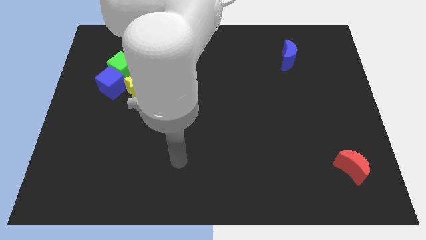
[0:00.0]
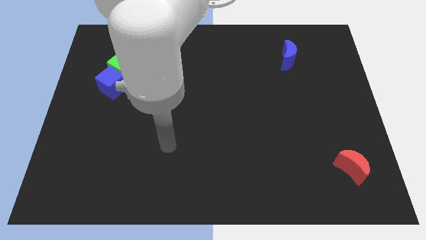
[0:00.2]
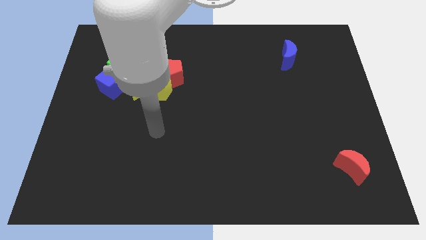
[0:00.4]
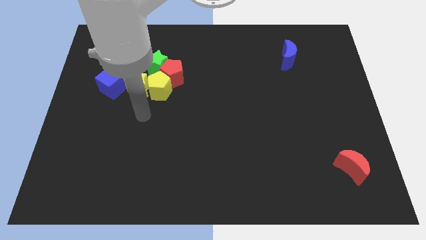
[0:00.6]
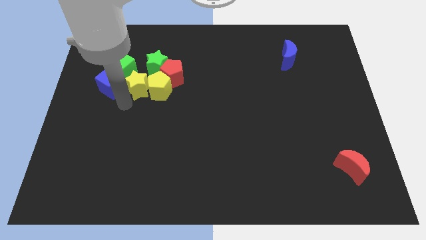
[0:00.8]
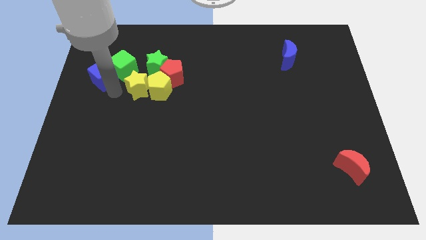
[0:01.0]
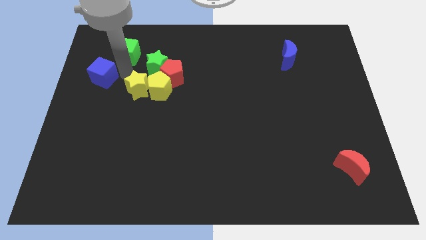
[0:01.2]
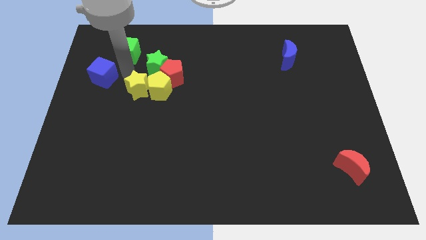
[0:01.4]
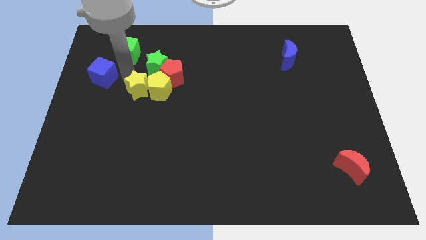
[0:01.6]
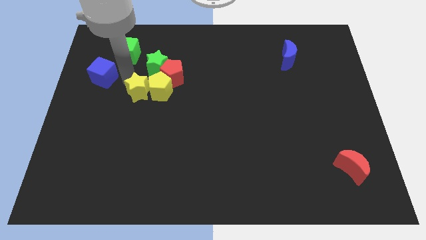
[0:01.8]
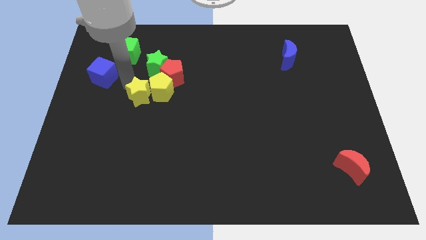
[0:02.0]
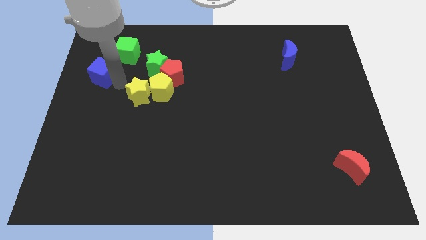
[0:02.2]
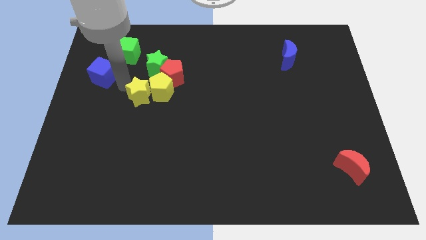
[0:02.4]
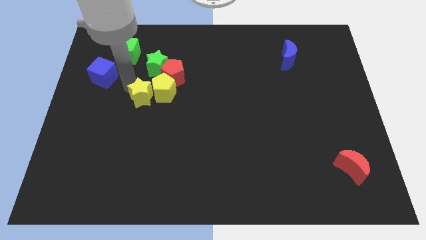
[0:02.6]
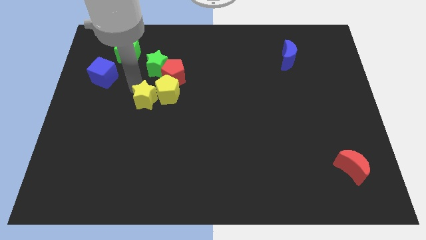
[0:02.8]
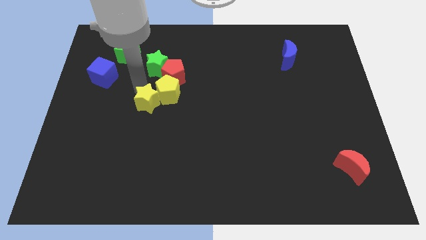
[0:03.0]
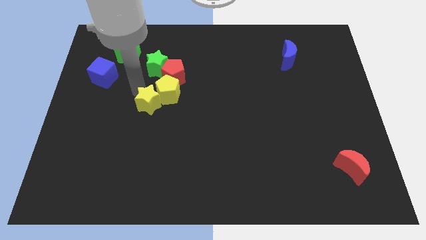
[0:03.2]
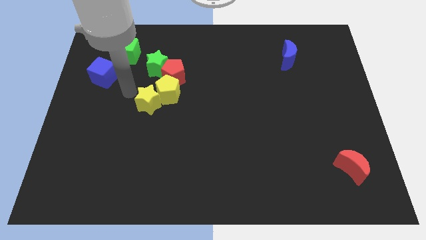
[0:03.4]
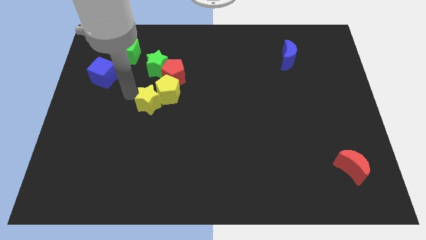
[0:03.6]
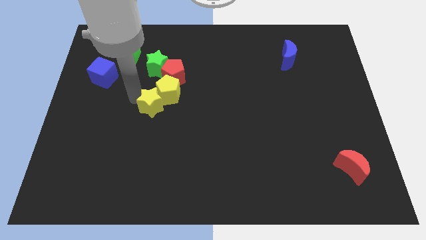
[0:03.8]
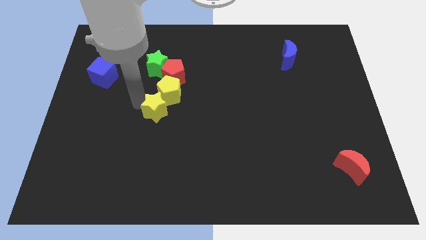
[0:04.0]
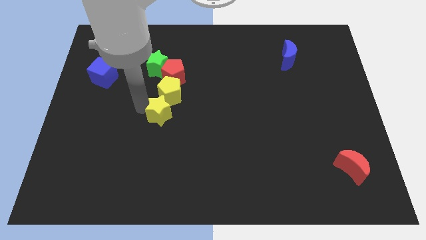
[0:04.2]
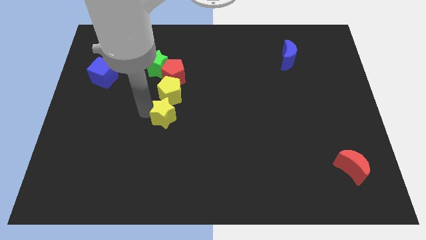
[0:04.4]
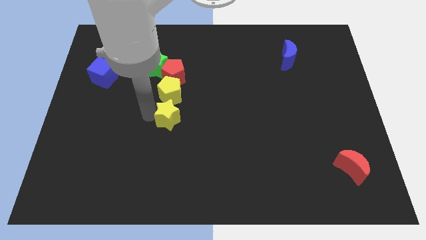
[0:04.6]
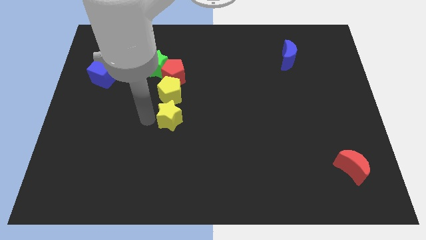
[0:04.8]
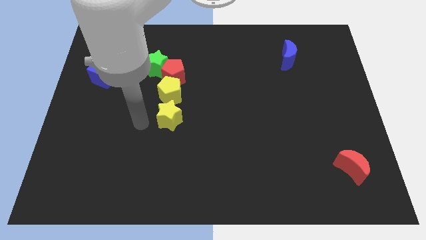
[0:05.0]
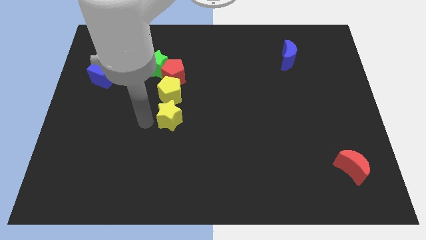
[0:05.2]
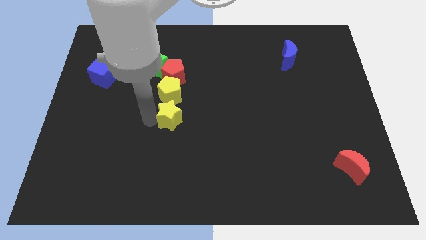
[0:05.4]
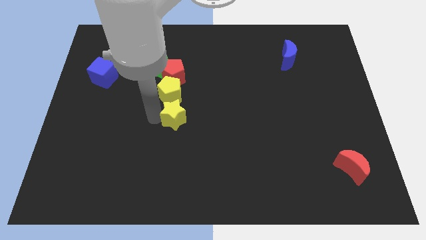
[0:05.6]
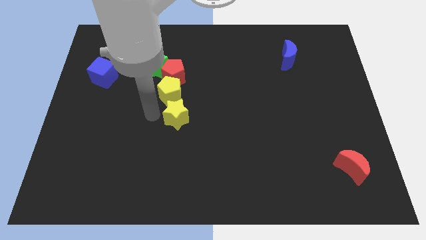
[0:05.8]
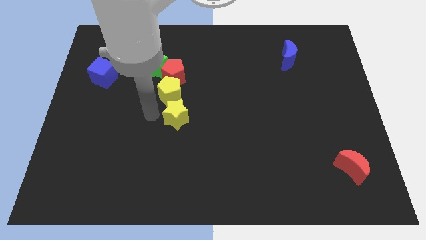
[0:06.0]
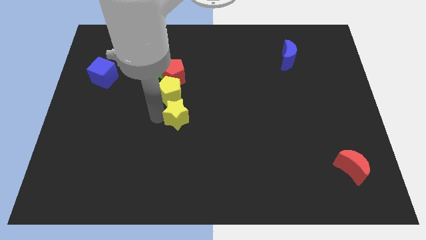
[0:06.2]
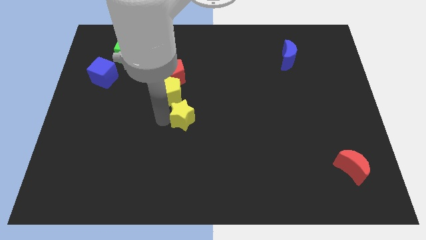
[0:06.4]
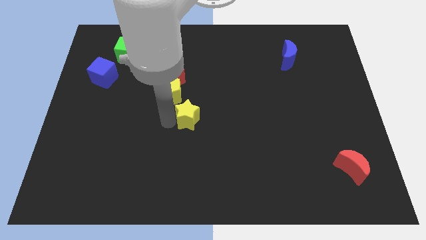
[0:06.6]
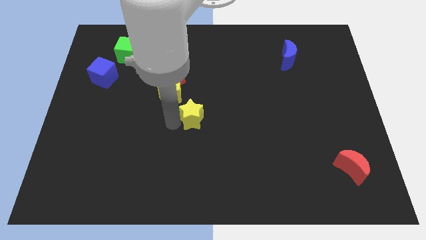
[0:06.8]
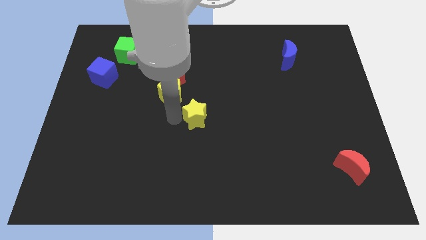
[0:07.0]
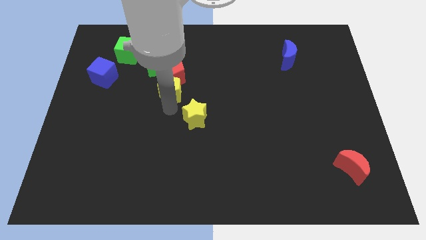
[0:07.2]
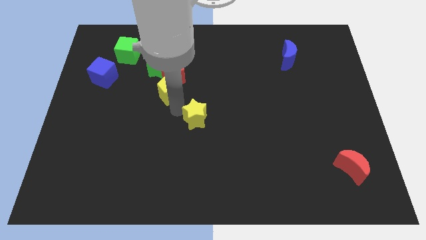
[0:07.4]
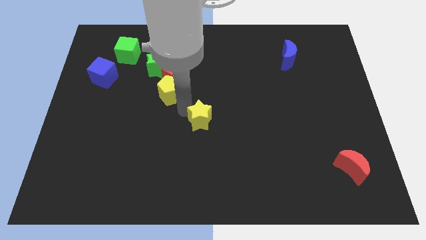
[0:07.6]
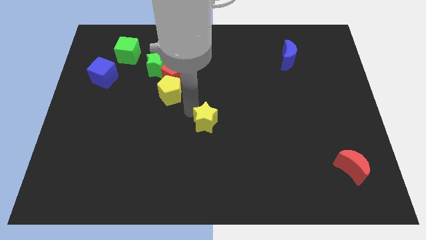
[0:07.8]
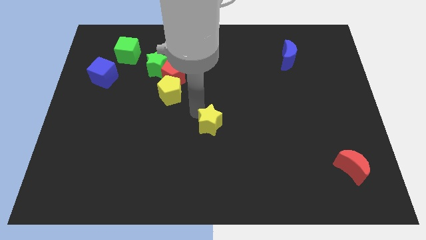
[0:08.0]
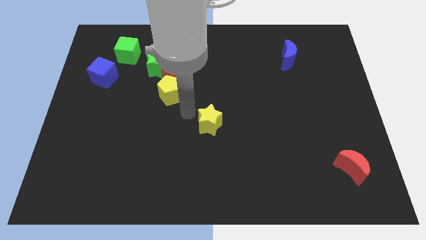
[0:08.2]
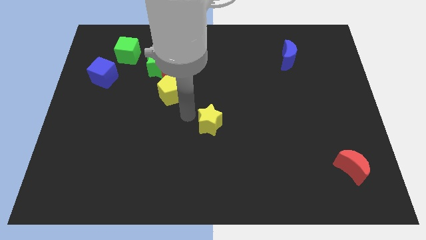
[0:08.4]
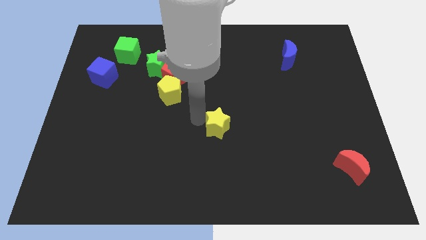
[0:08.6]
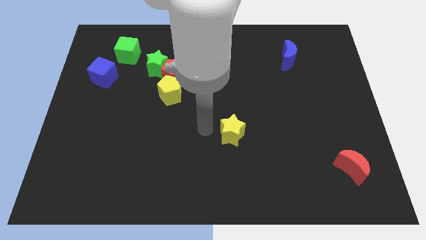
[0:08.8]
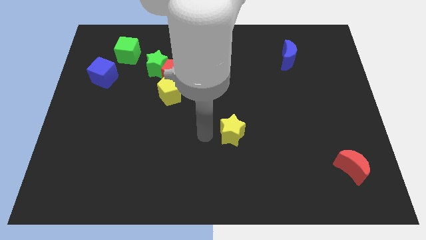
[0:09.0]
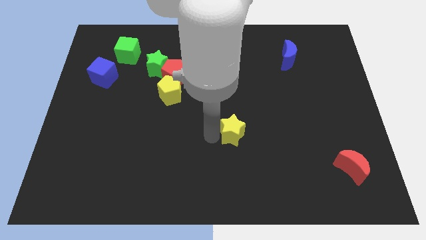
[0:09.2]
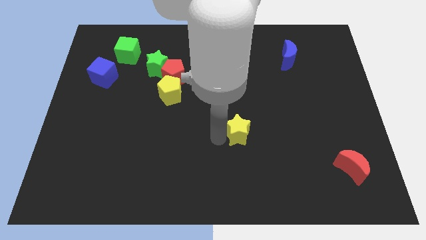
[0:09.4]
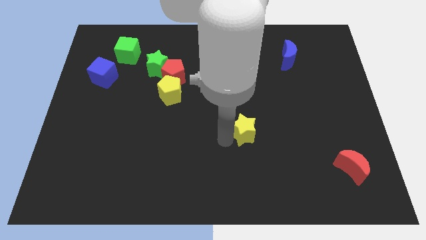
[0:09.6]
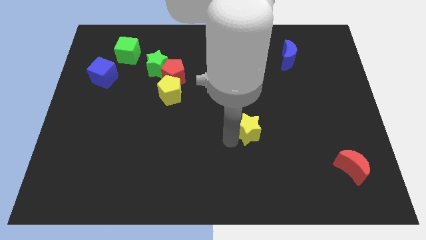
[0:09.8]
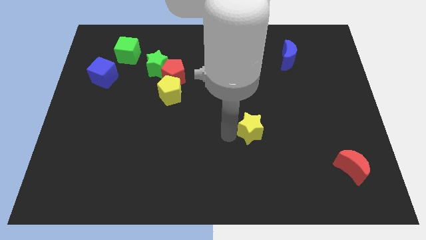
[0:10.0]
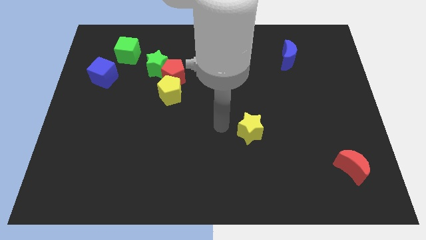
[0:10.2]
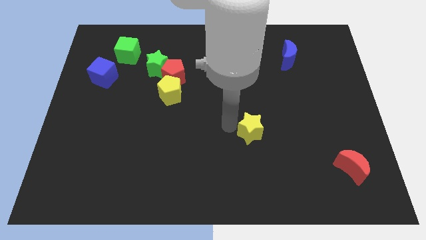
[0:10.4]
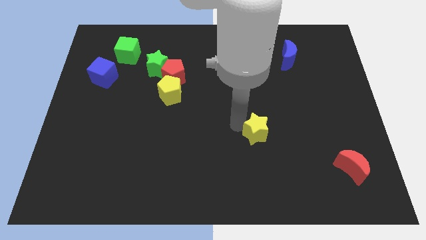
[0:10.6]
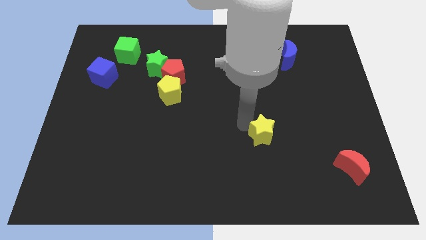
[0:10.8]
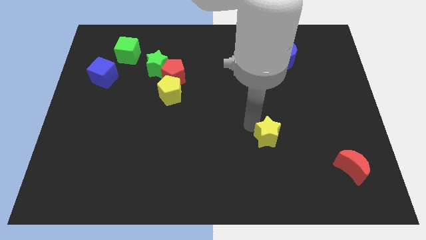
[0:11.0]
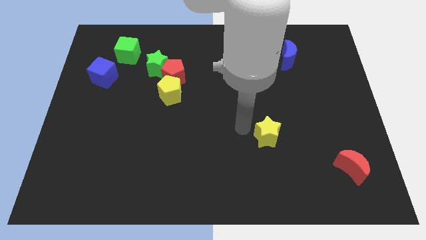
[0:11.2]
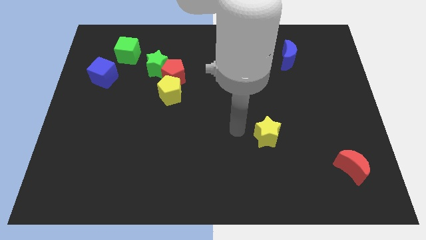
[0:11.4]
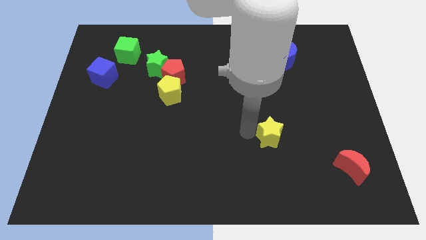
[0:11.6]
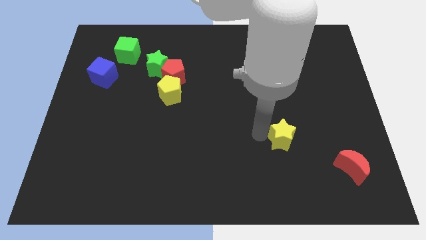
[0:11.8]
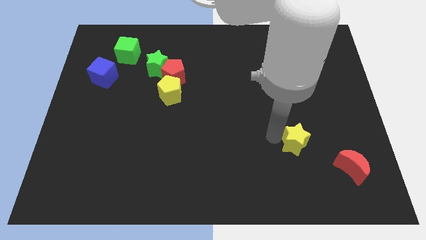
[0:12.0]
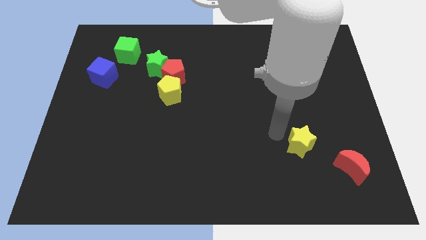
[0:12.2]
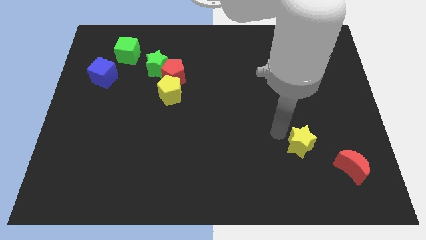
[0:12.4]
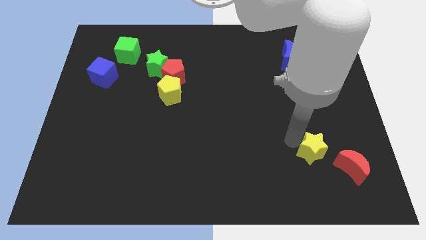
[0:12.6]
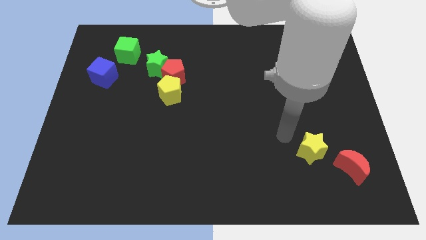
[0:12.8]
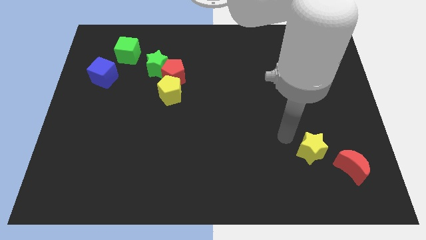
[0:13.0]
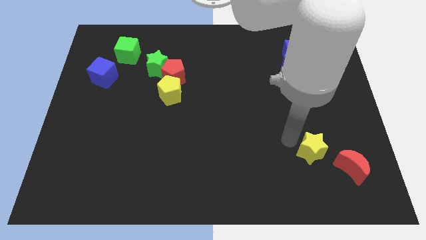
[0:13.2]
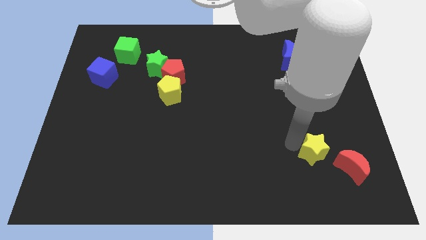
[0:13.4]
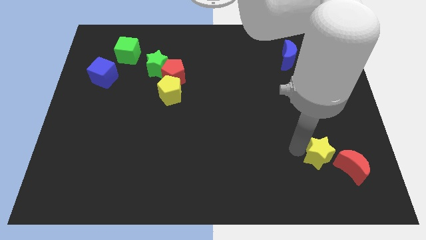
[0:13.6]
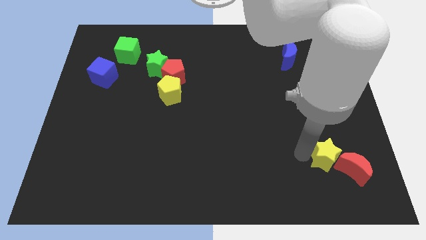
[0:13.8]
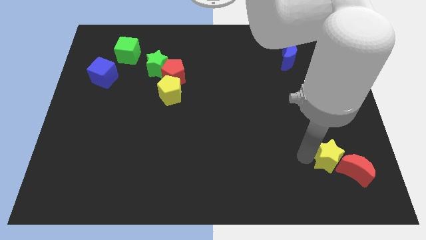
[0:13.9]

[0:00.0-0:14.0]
move the yellow star next to the red moon
